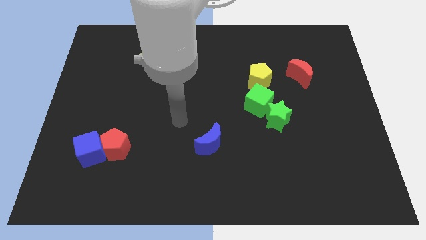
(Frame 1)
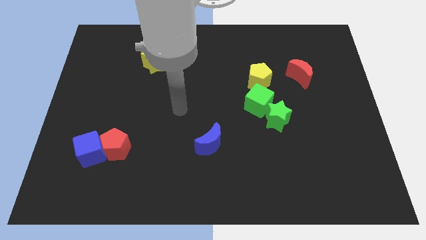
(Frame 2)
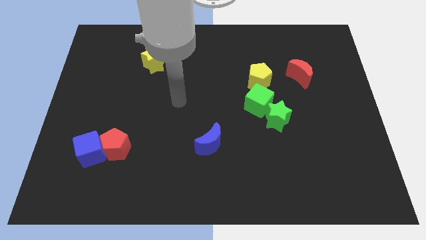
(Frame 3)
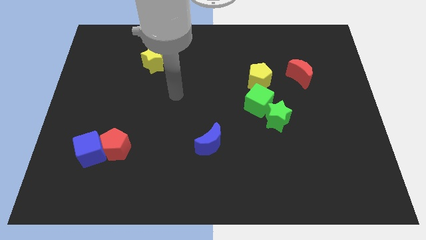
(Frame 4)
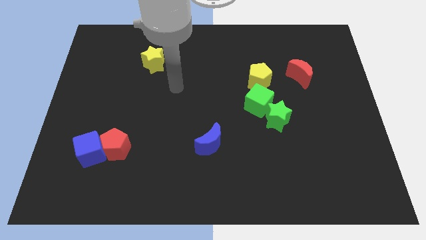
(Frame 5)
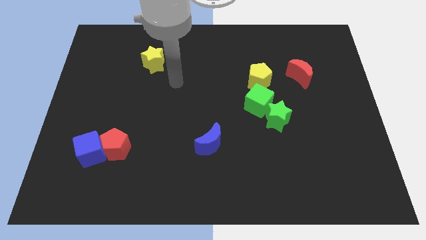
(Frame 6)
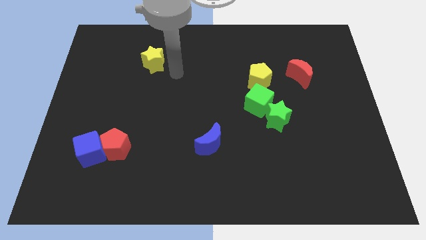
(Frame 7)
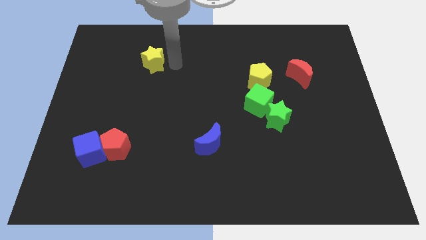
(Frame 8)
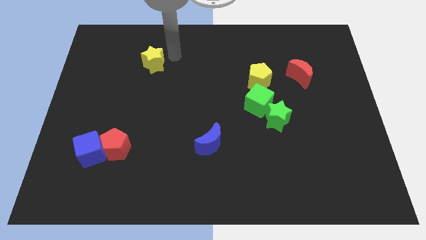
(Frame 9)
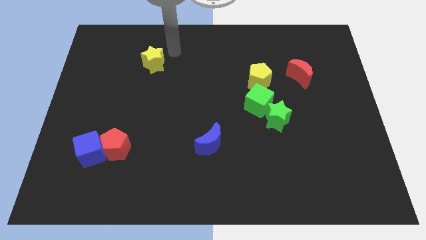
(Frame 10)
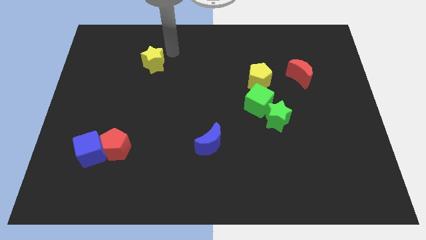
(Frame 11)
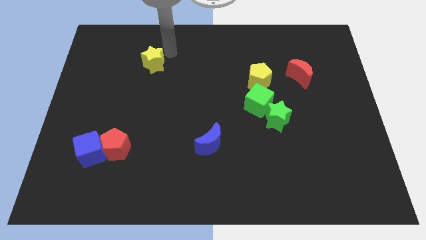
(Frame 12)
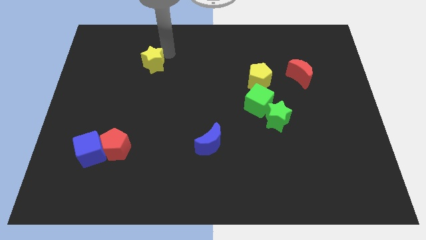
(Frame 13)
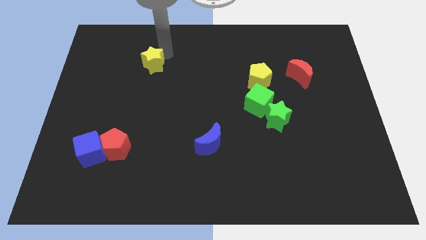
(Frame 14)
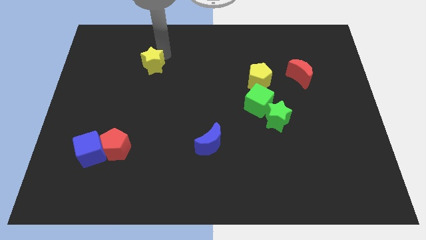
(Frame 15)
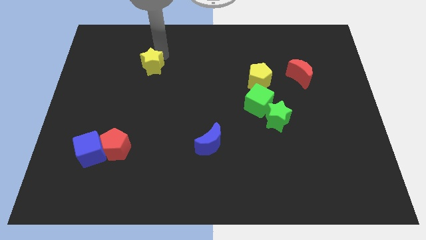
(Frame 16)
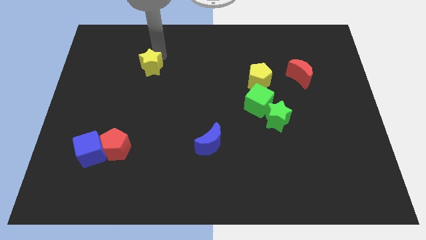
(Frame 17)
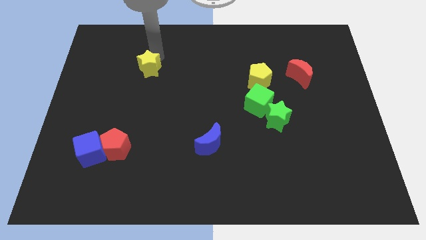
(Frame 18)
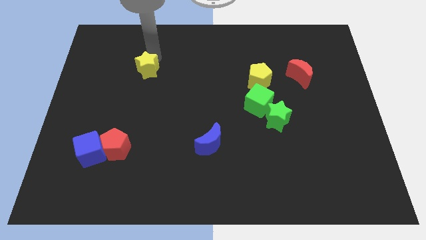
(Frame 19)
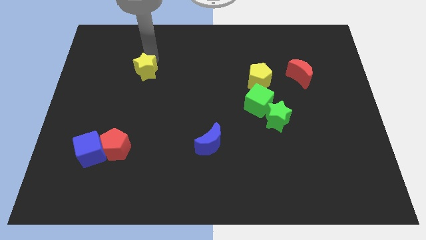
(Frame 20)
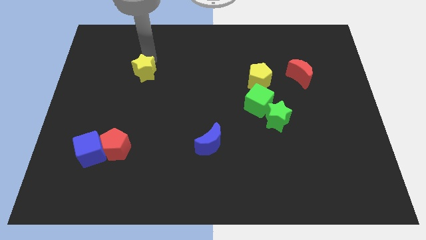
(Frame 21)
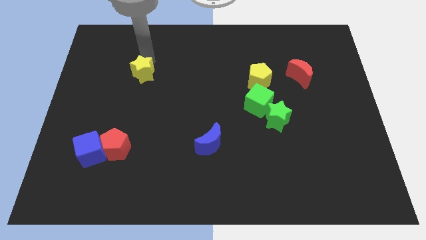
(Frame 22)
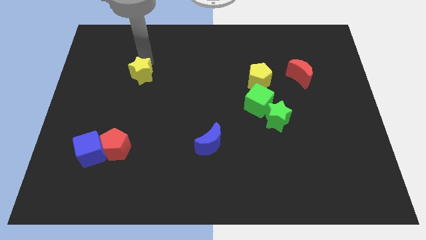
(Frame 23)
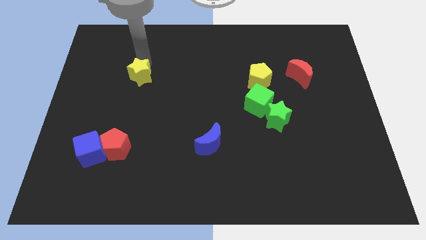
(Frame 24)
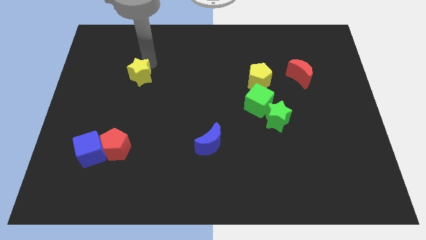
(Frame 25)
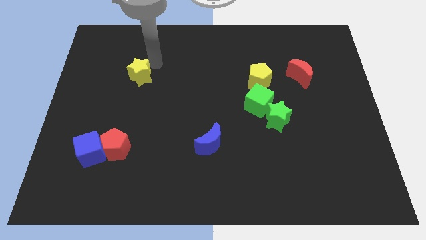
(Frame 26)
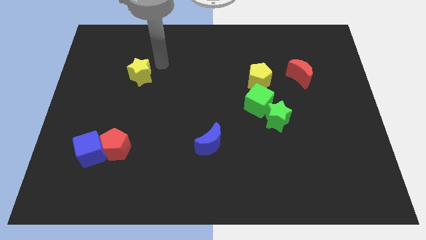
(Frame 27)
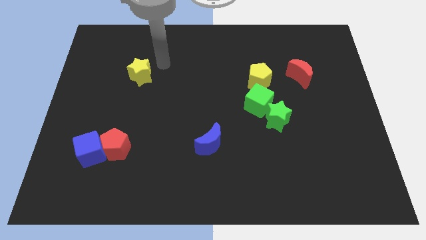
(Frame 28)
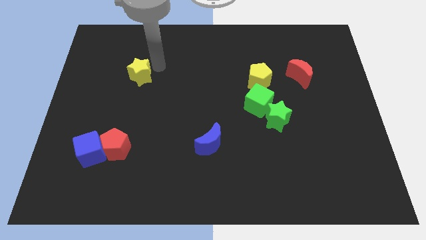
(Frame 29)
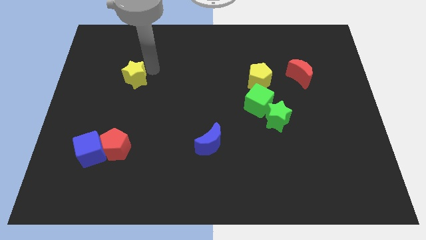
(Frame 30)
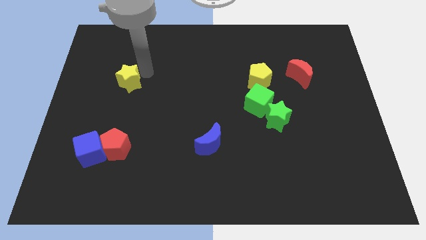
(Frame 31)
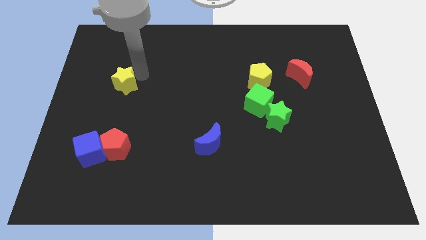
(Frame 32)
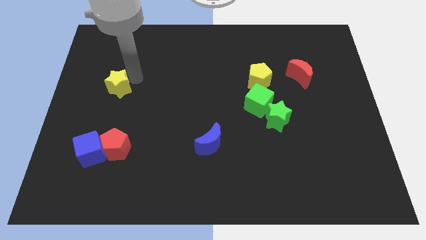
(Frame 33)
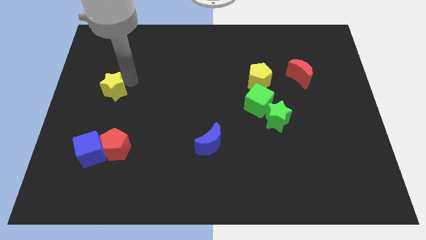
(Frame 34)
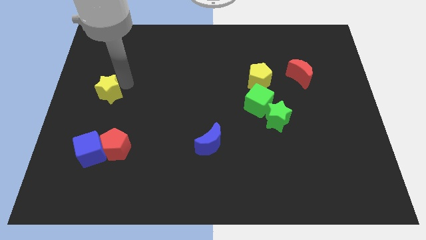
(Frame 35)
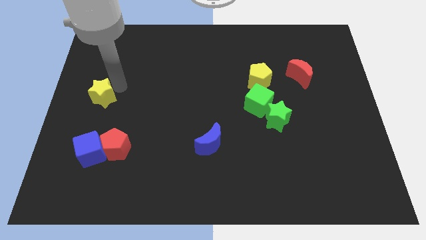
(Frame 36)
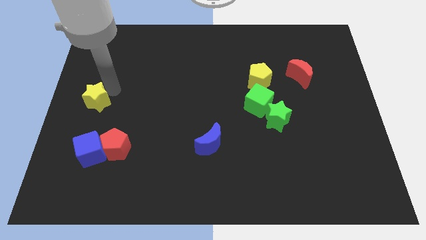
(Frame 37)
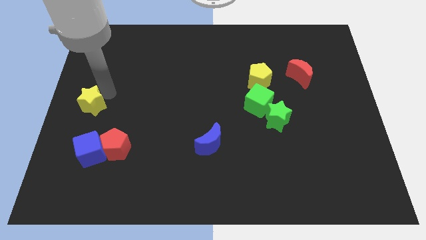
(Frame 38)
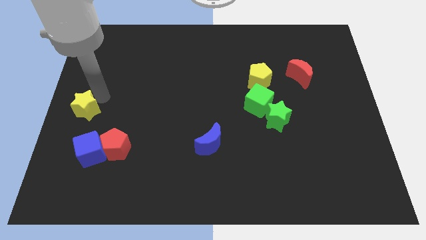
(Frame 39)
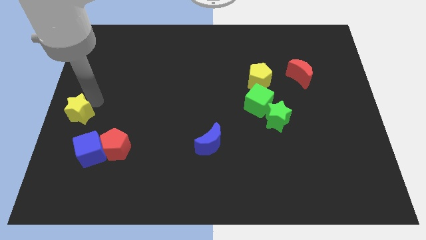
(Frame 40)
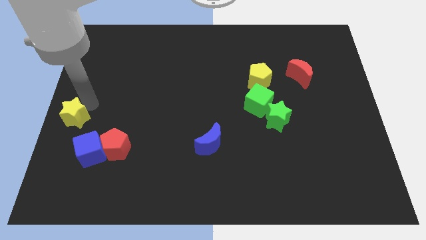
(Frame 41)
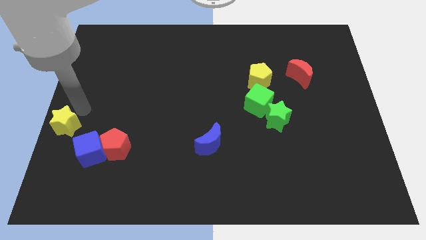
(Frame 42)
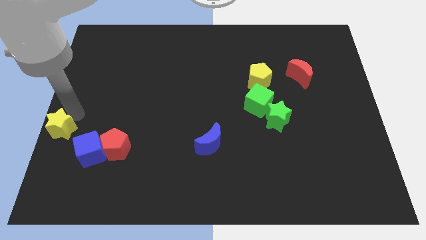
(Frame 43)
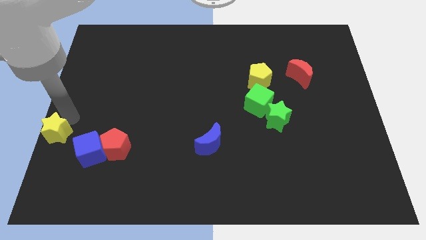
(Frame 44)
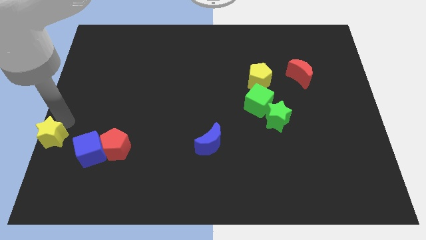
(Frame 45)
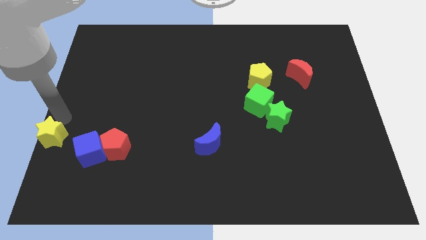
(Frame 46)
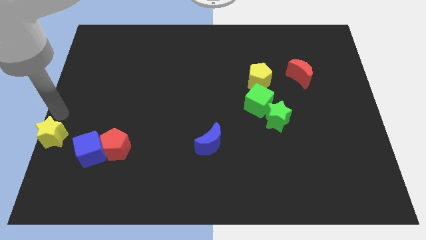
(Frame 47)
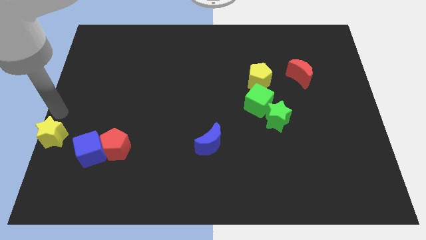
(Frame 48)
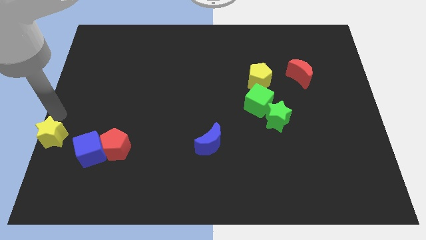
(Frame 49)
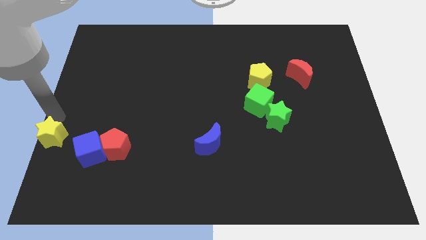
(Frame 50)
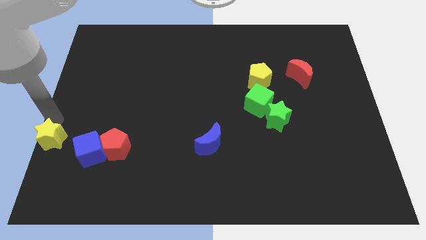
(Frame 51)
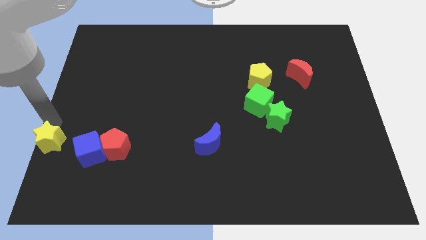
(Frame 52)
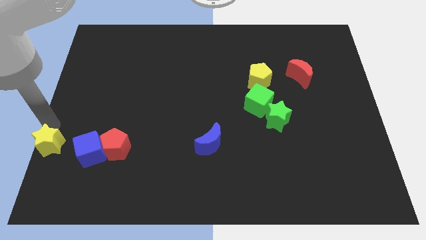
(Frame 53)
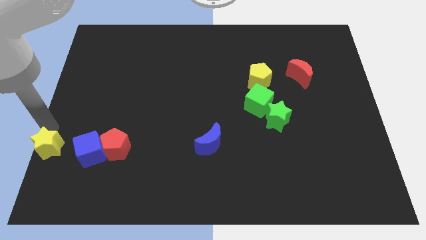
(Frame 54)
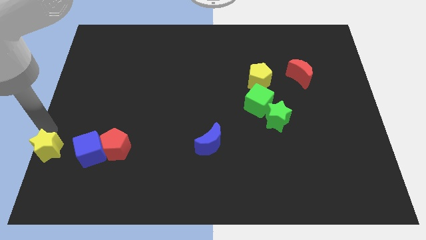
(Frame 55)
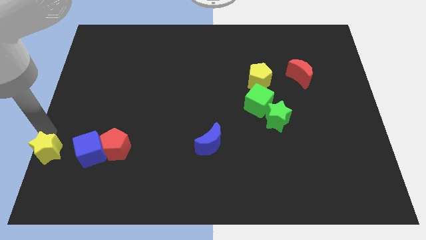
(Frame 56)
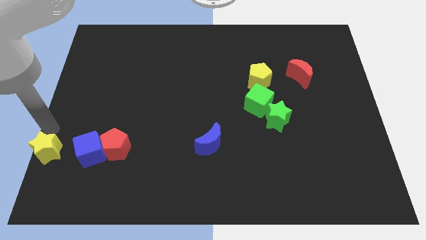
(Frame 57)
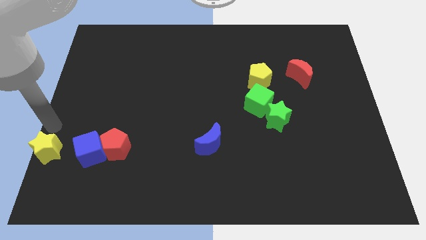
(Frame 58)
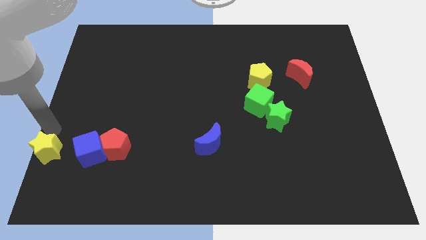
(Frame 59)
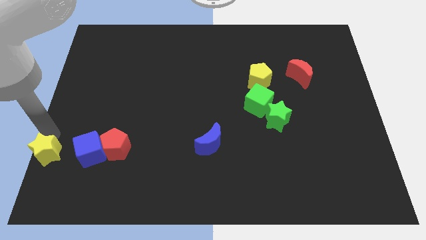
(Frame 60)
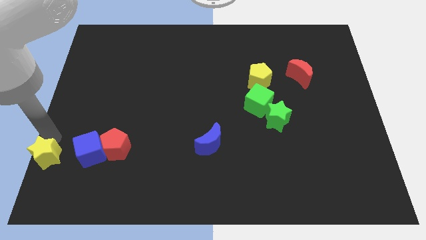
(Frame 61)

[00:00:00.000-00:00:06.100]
slide the yellow star to the lower left corner
